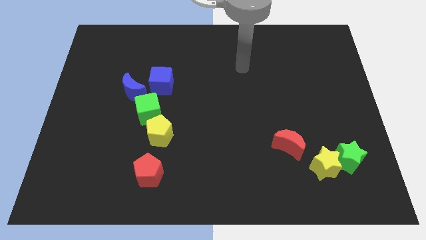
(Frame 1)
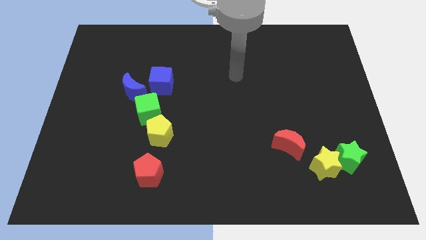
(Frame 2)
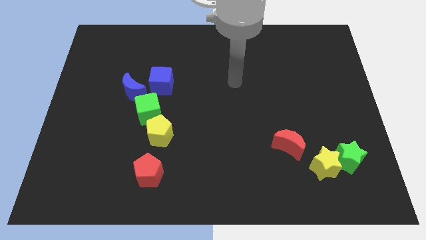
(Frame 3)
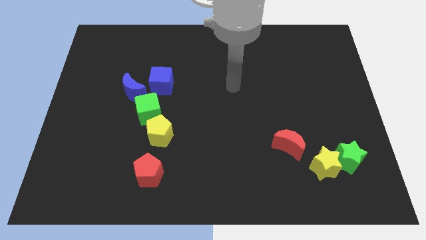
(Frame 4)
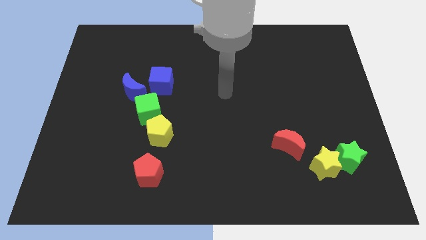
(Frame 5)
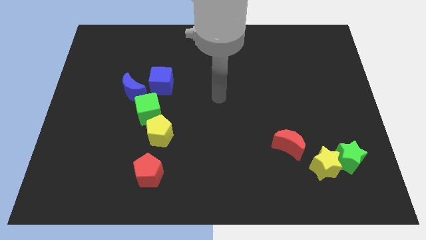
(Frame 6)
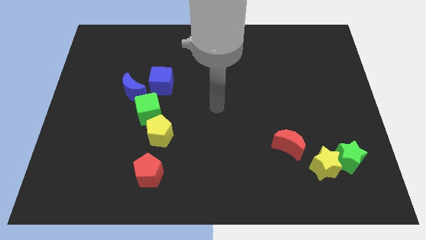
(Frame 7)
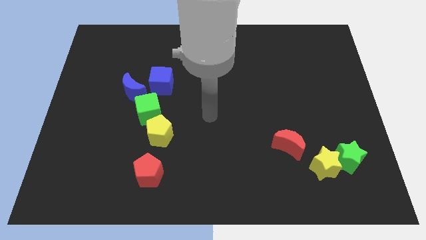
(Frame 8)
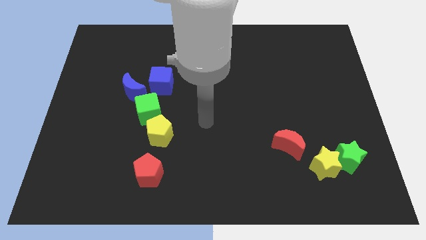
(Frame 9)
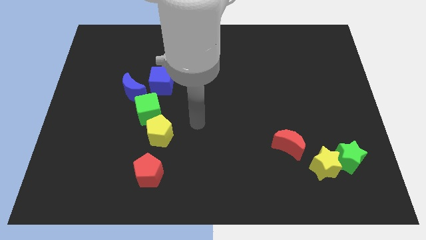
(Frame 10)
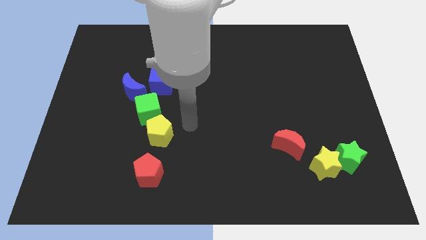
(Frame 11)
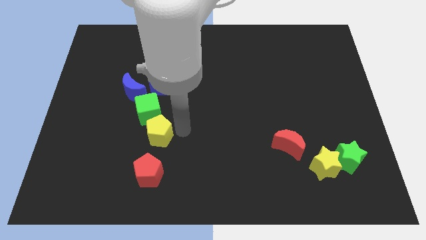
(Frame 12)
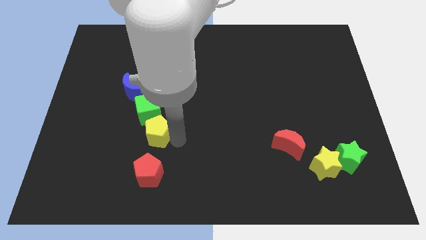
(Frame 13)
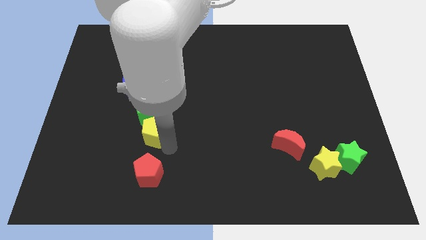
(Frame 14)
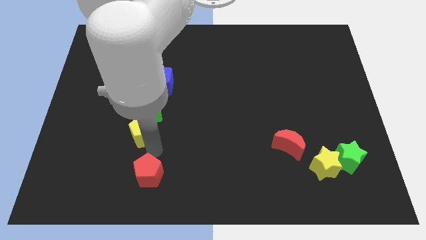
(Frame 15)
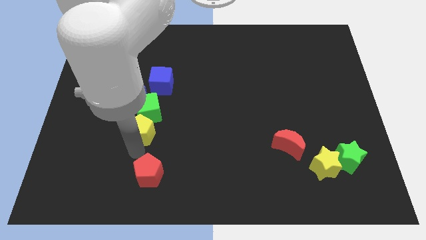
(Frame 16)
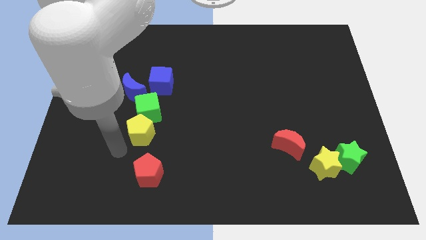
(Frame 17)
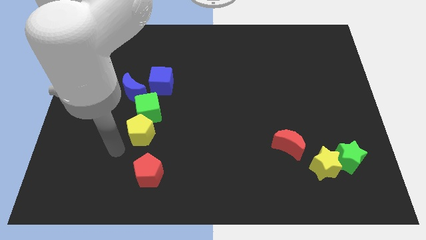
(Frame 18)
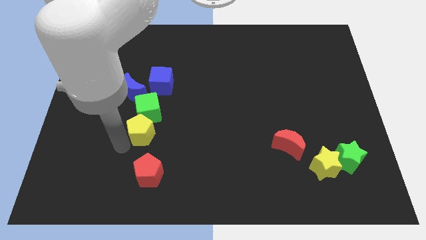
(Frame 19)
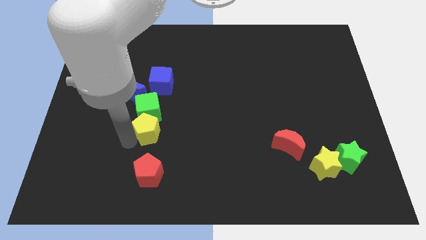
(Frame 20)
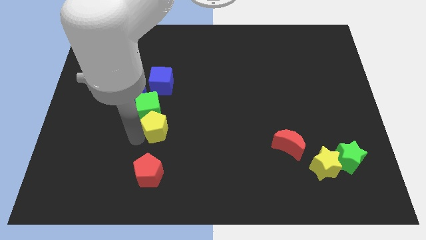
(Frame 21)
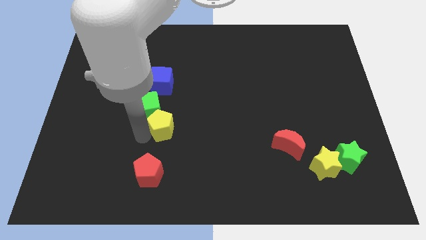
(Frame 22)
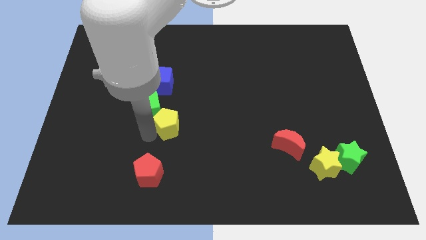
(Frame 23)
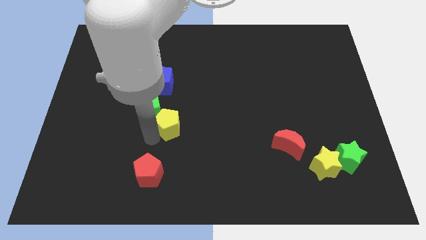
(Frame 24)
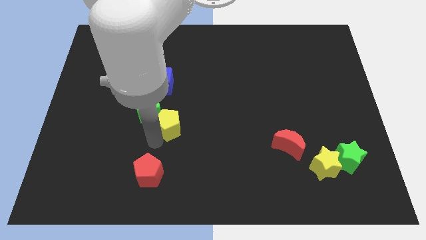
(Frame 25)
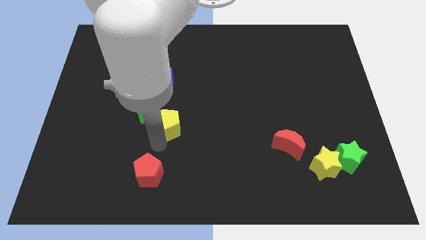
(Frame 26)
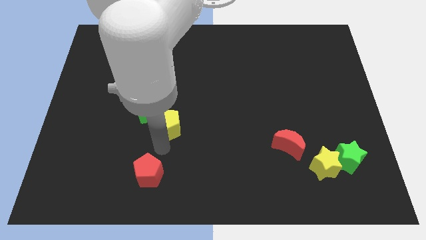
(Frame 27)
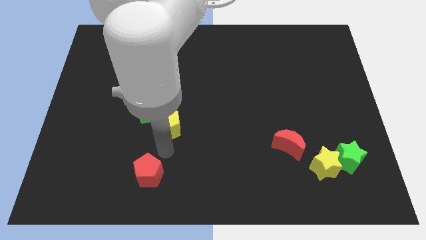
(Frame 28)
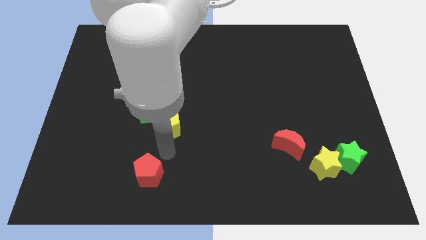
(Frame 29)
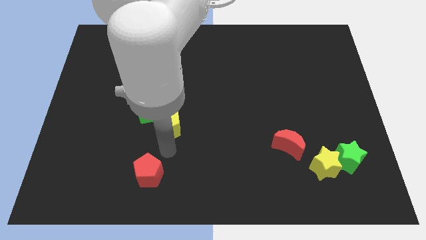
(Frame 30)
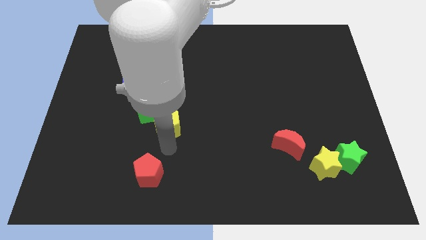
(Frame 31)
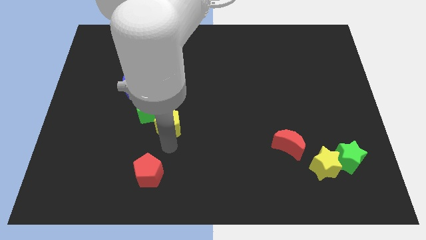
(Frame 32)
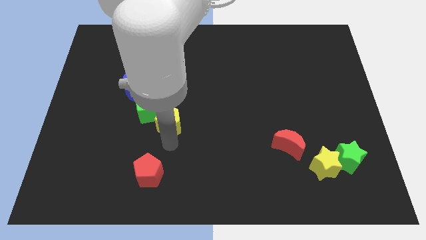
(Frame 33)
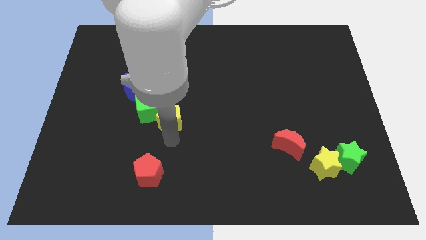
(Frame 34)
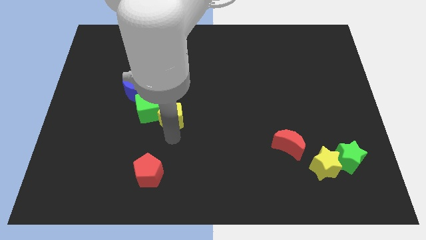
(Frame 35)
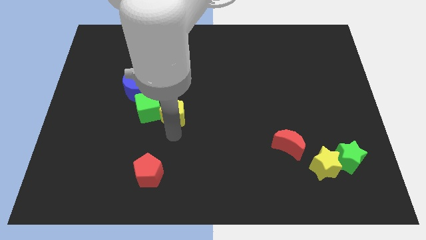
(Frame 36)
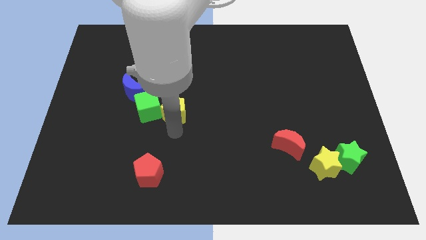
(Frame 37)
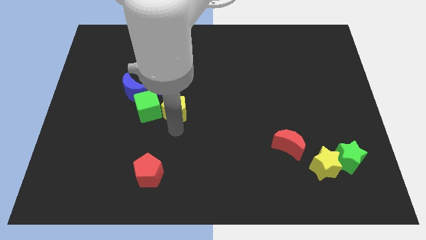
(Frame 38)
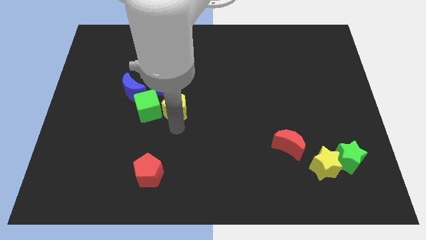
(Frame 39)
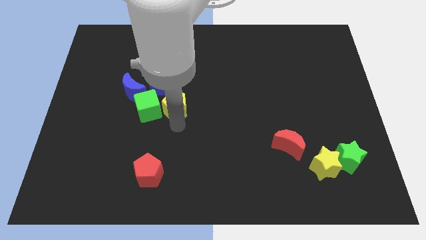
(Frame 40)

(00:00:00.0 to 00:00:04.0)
push the yellow pentagon a little bit upwards

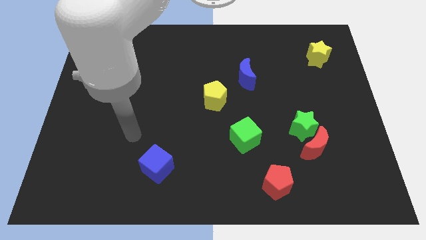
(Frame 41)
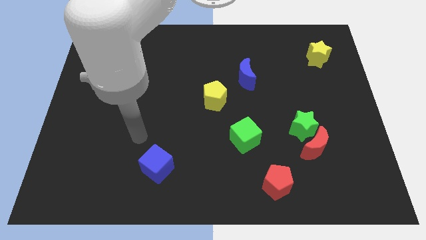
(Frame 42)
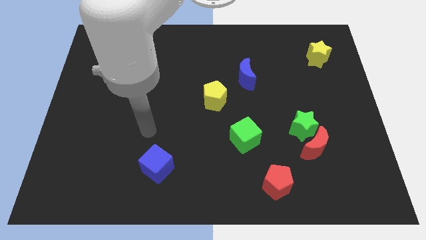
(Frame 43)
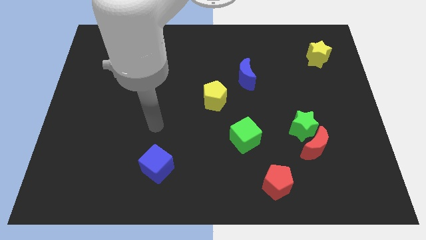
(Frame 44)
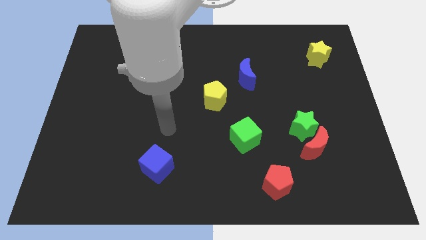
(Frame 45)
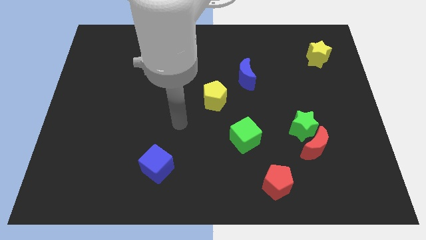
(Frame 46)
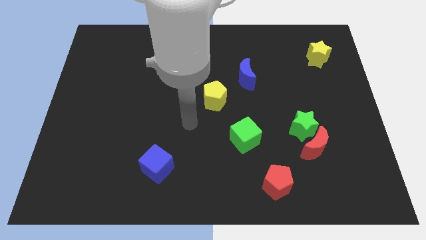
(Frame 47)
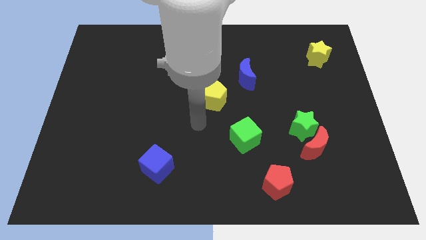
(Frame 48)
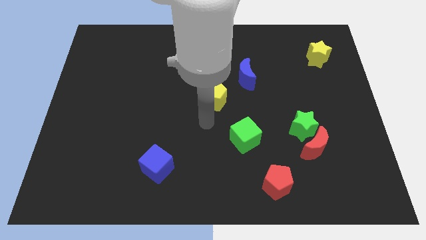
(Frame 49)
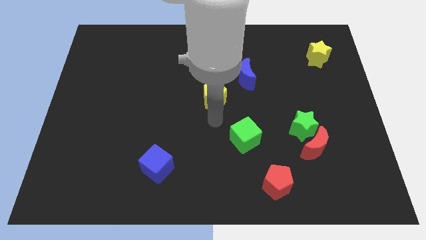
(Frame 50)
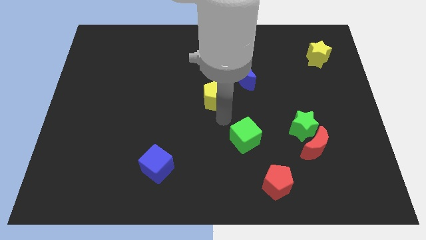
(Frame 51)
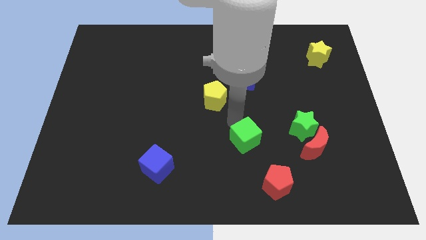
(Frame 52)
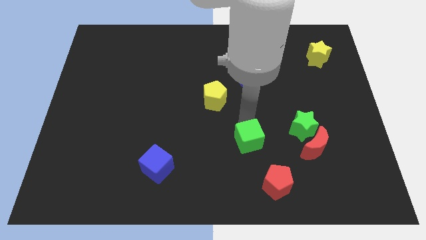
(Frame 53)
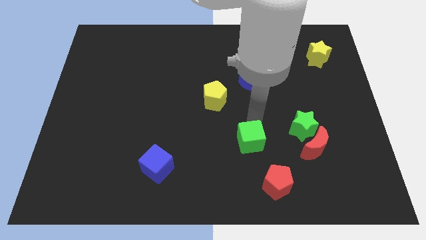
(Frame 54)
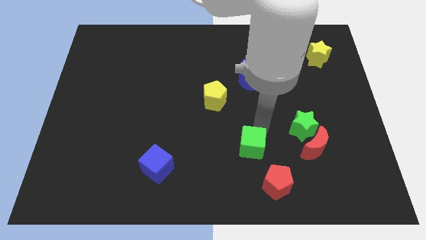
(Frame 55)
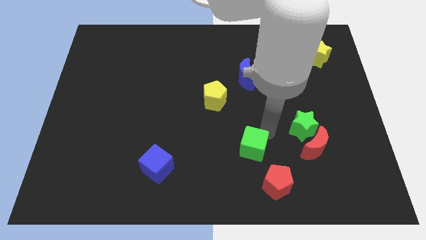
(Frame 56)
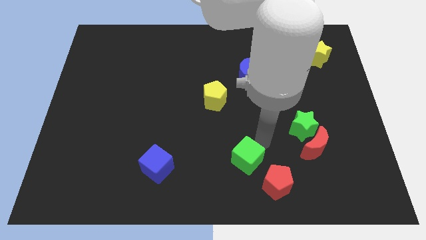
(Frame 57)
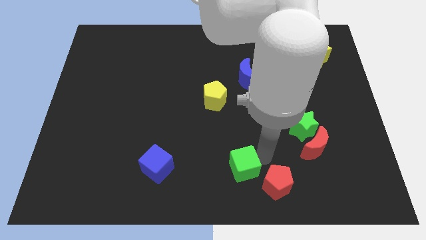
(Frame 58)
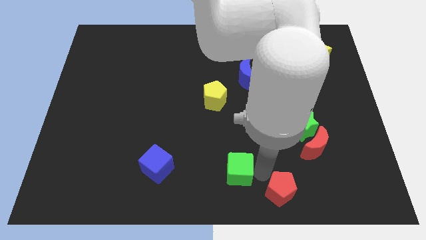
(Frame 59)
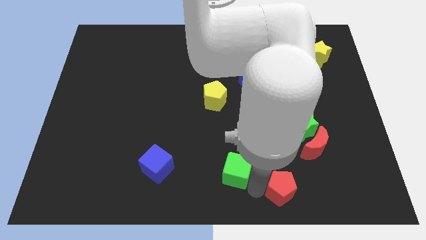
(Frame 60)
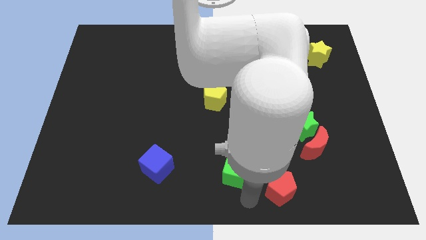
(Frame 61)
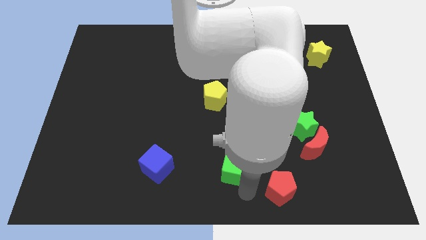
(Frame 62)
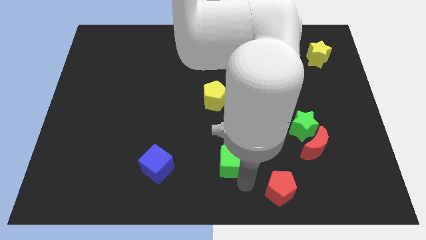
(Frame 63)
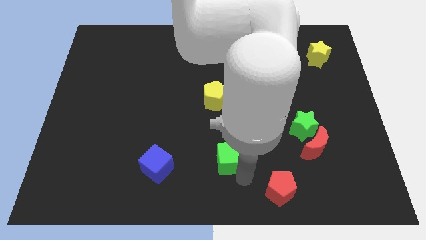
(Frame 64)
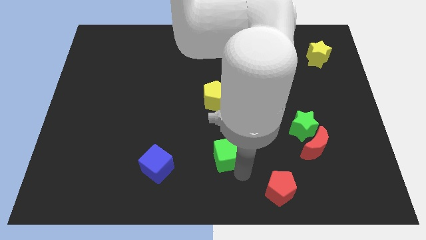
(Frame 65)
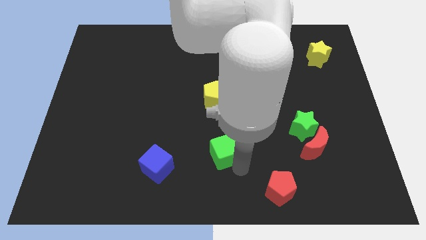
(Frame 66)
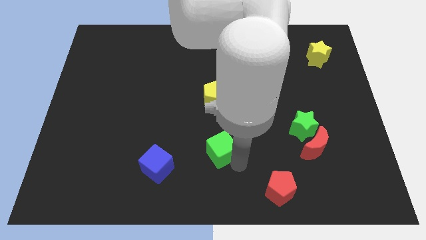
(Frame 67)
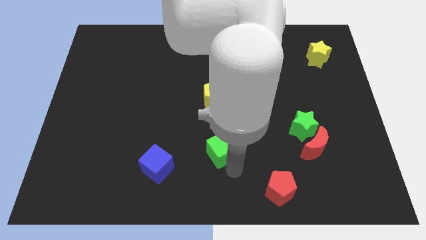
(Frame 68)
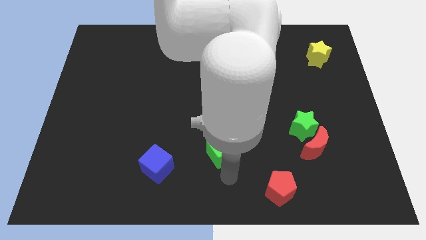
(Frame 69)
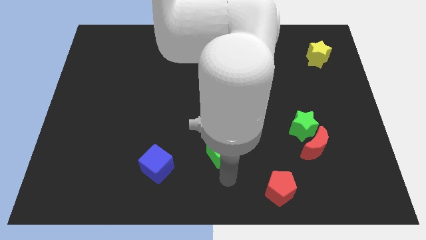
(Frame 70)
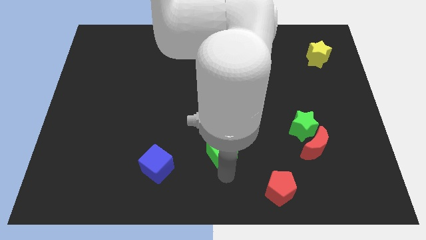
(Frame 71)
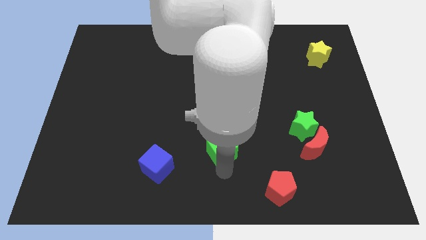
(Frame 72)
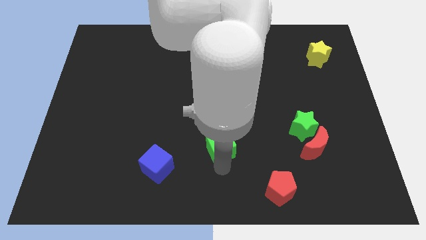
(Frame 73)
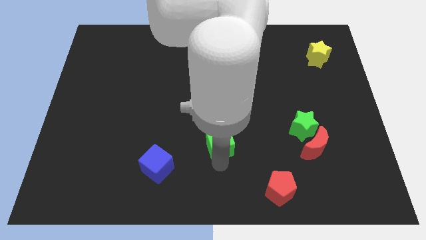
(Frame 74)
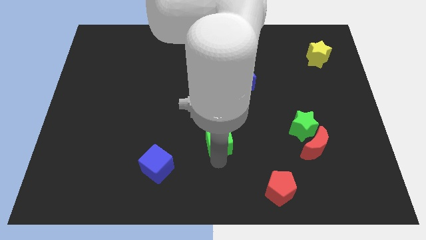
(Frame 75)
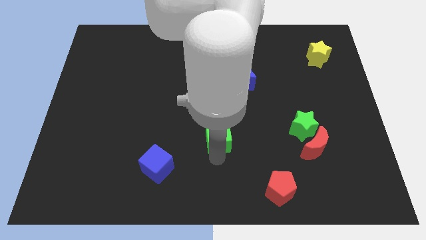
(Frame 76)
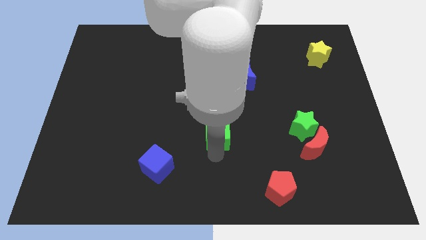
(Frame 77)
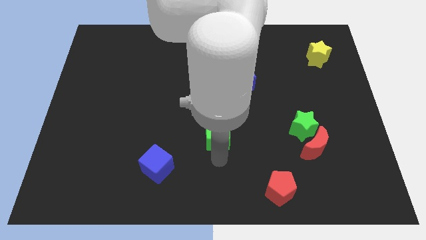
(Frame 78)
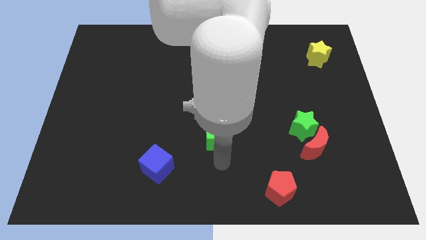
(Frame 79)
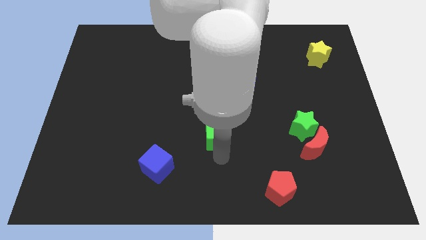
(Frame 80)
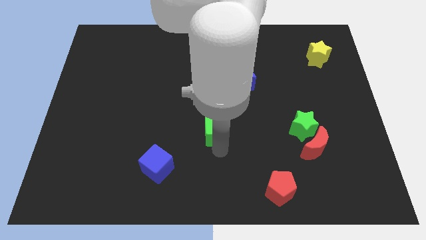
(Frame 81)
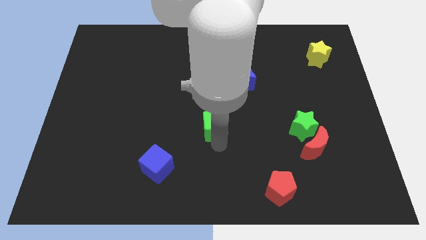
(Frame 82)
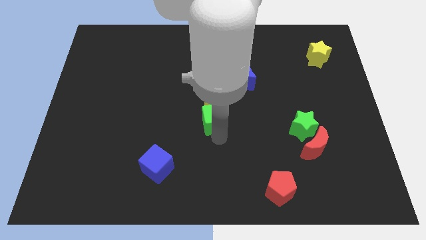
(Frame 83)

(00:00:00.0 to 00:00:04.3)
move the green cube a little bit up and to the left
